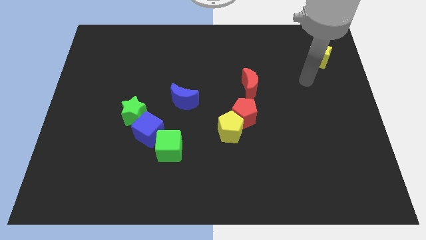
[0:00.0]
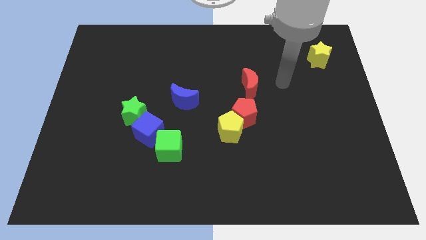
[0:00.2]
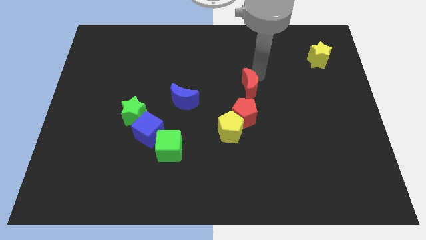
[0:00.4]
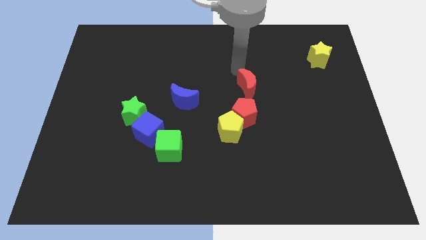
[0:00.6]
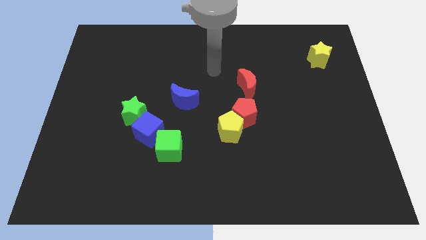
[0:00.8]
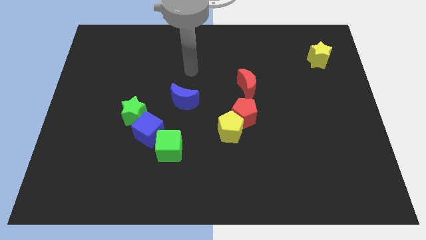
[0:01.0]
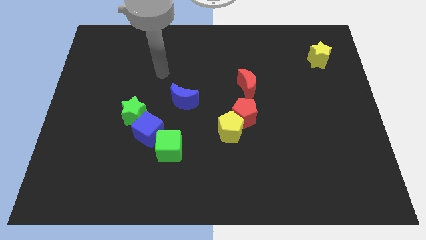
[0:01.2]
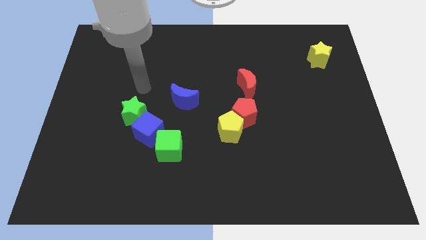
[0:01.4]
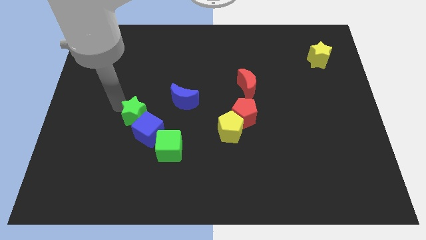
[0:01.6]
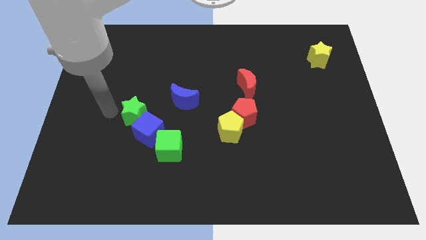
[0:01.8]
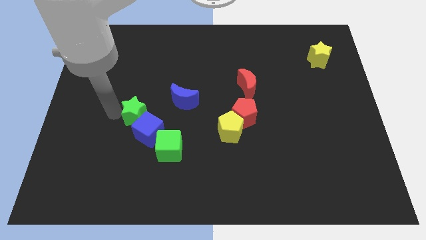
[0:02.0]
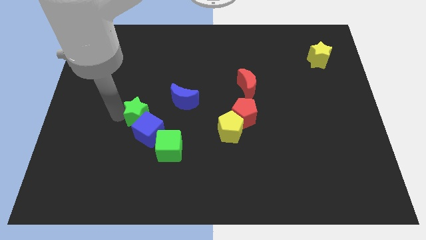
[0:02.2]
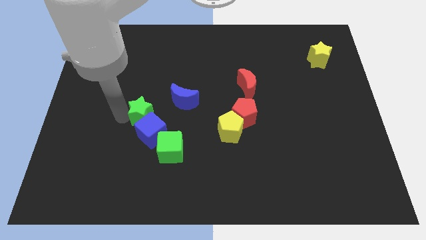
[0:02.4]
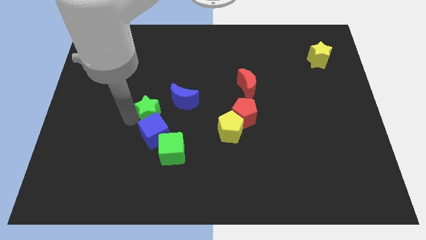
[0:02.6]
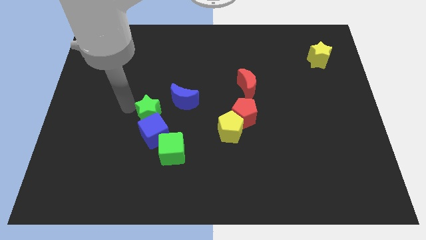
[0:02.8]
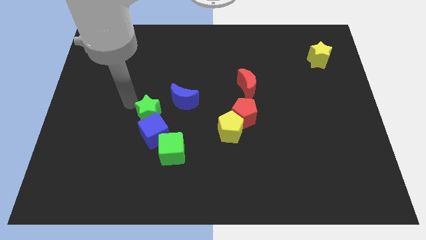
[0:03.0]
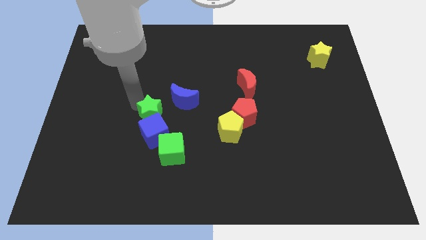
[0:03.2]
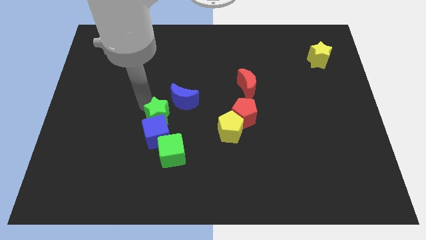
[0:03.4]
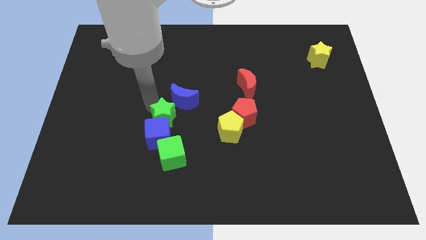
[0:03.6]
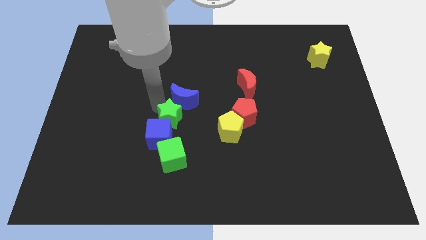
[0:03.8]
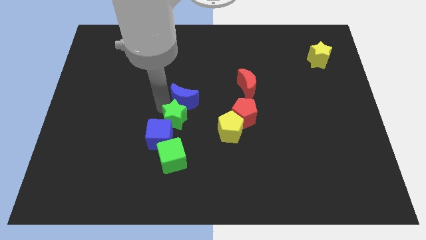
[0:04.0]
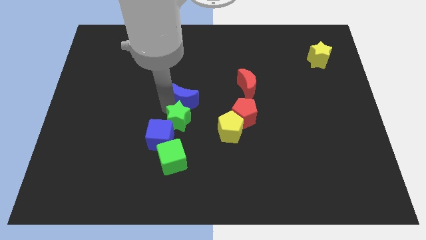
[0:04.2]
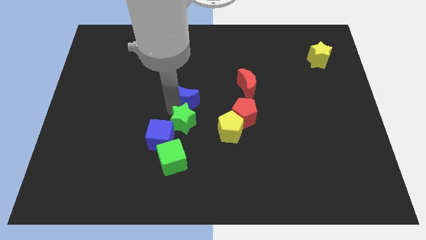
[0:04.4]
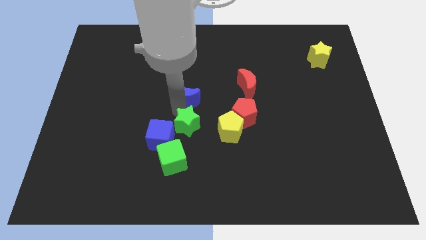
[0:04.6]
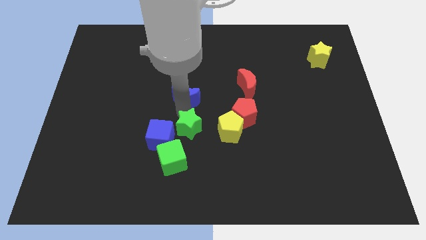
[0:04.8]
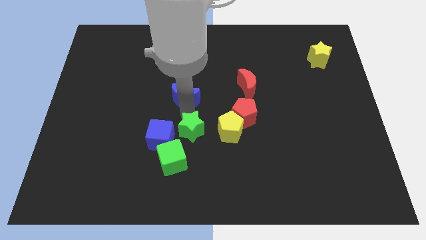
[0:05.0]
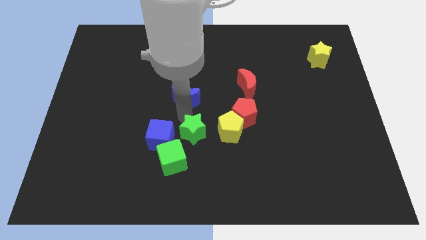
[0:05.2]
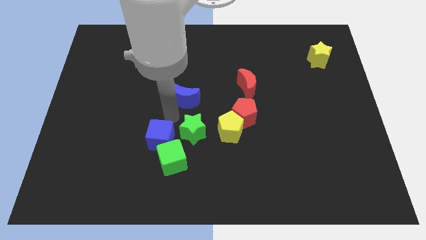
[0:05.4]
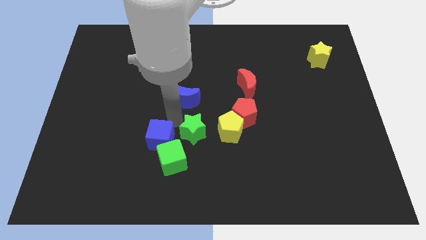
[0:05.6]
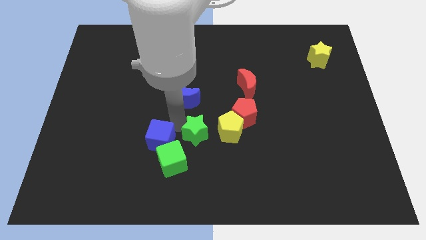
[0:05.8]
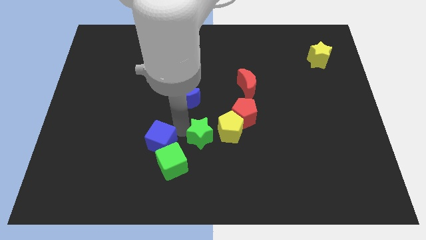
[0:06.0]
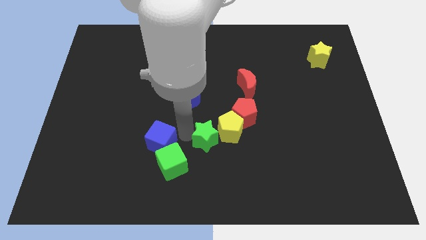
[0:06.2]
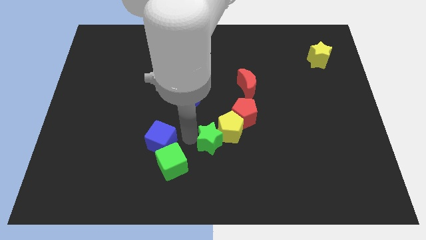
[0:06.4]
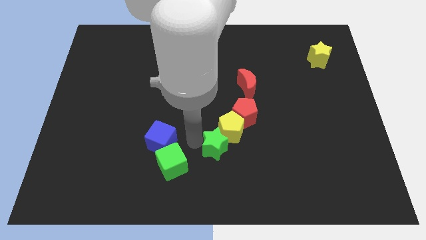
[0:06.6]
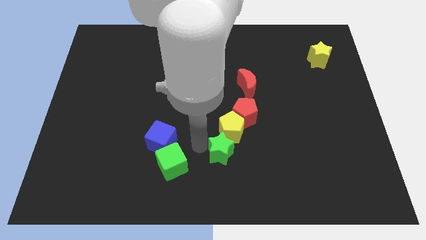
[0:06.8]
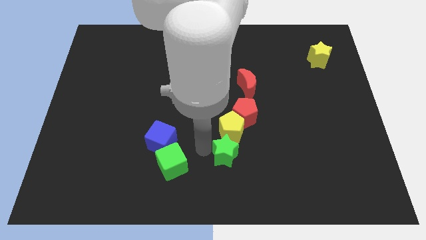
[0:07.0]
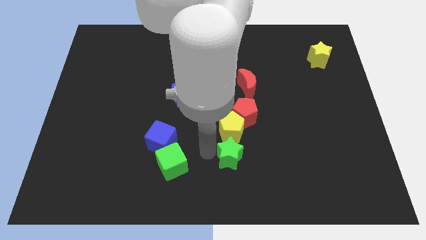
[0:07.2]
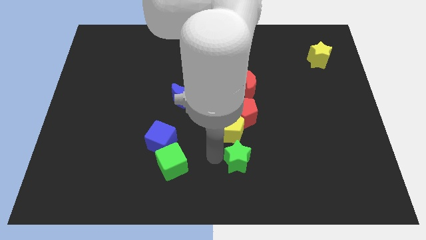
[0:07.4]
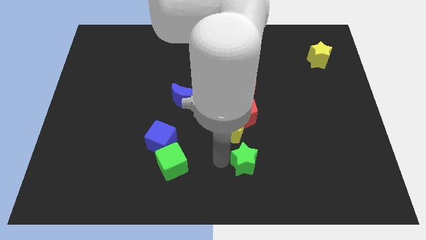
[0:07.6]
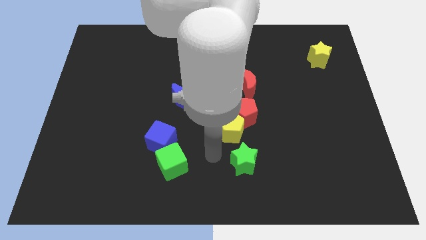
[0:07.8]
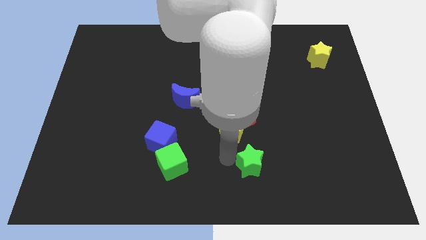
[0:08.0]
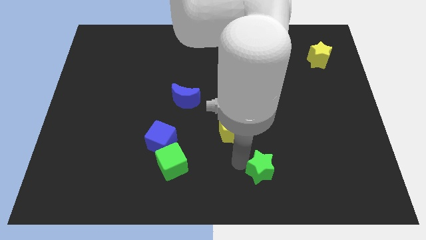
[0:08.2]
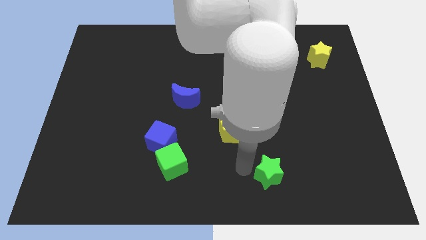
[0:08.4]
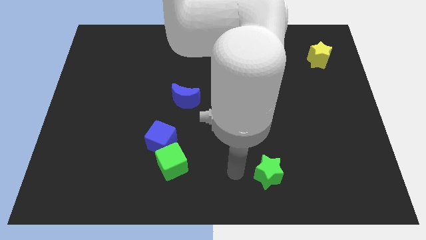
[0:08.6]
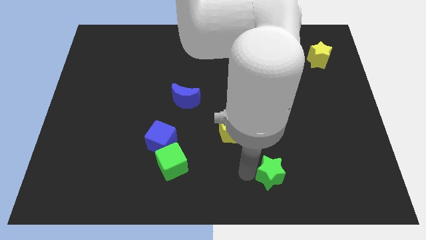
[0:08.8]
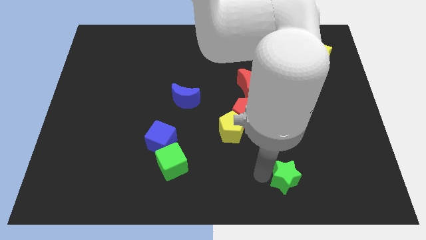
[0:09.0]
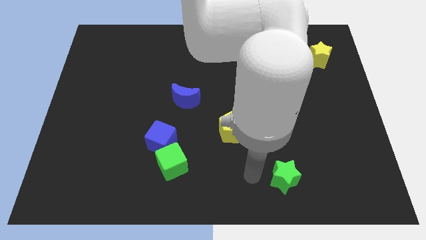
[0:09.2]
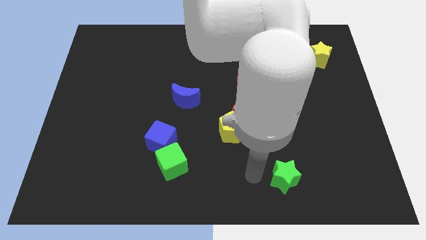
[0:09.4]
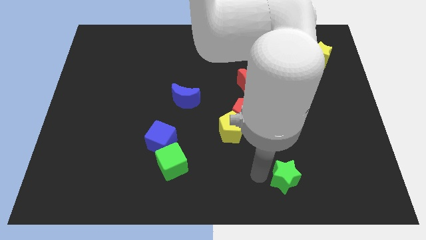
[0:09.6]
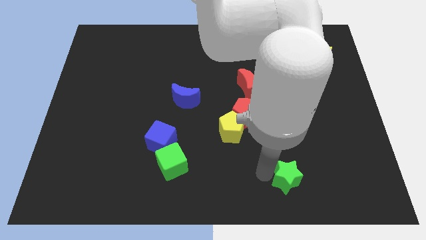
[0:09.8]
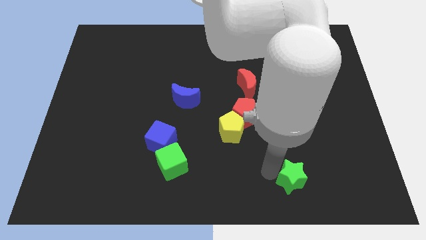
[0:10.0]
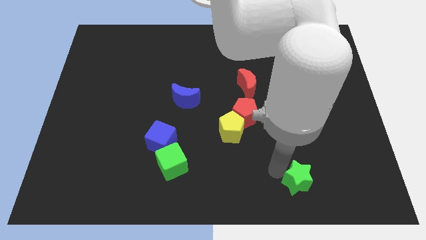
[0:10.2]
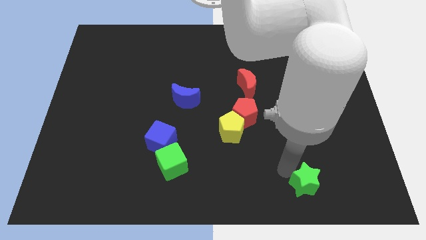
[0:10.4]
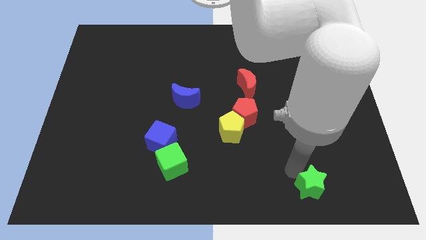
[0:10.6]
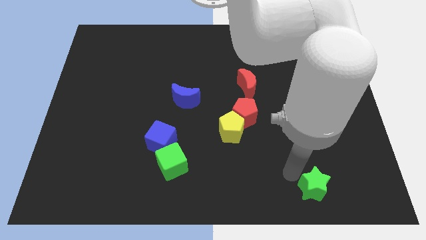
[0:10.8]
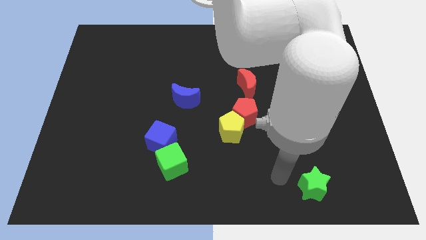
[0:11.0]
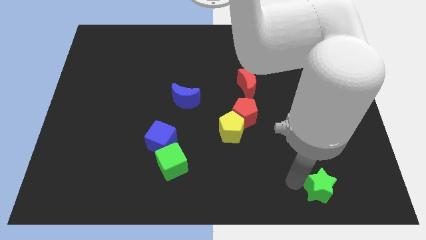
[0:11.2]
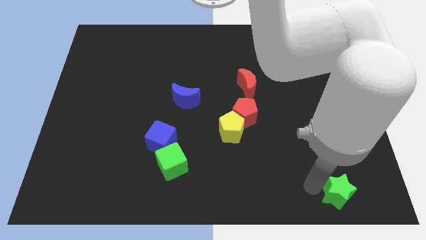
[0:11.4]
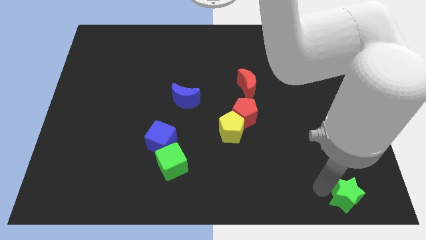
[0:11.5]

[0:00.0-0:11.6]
push the green star to the lower right corner
